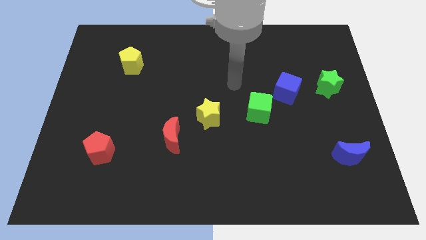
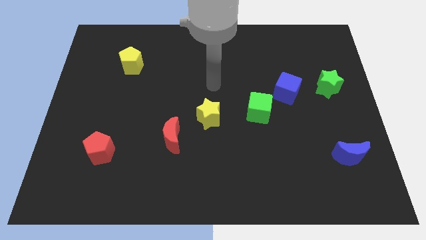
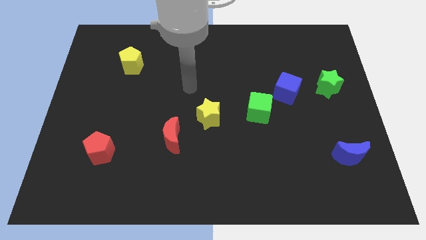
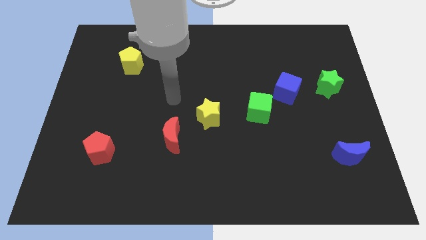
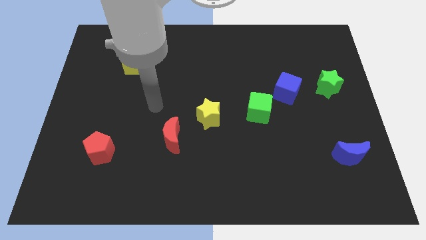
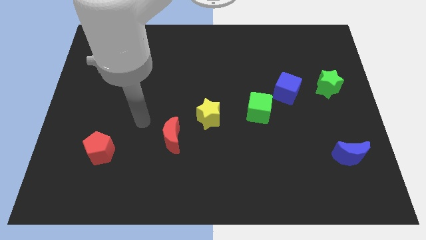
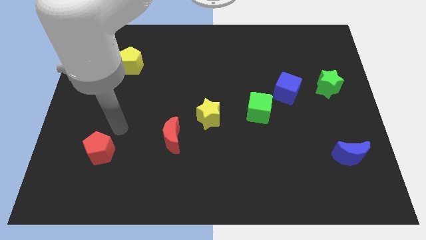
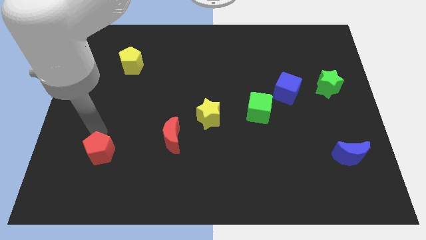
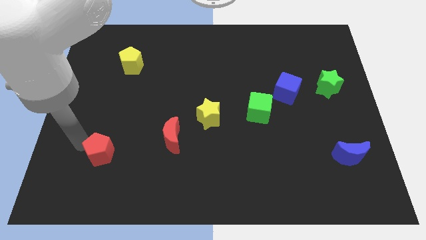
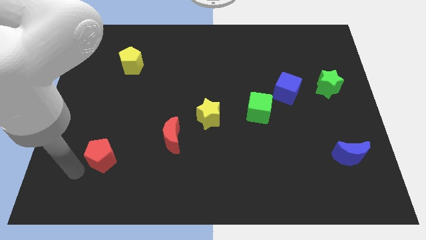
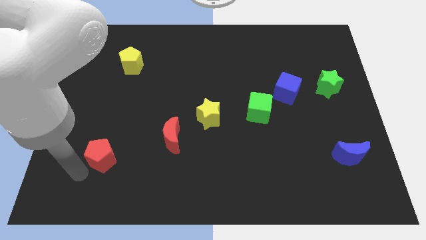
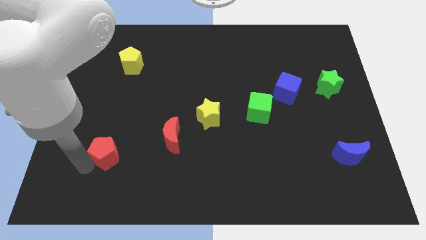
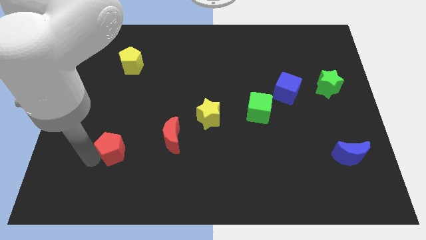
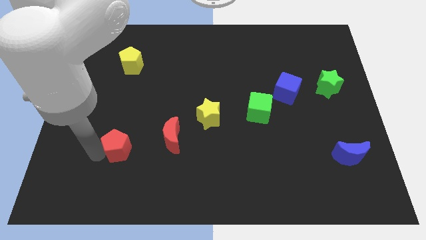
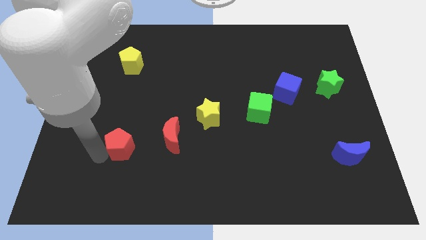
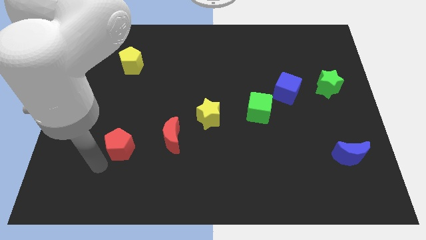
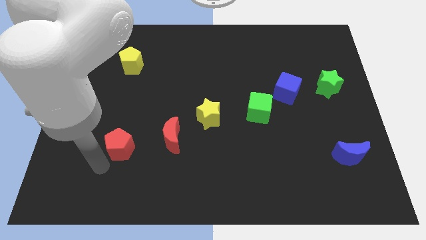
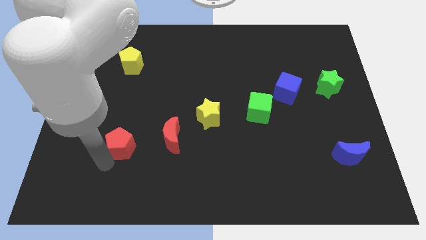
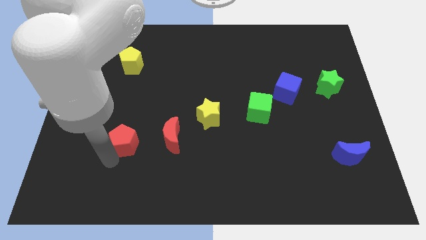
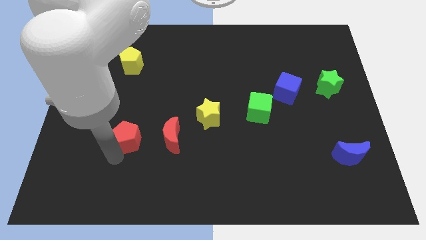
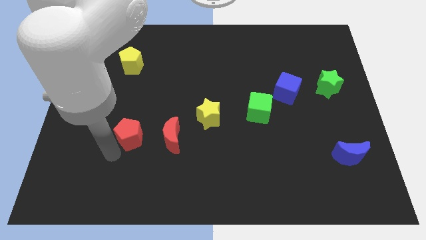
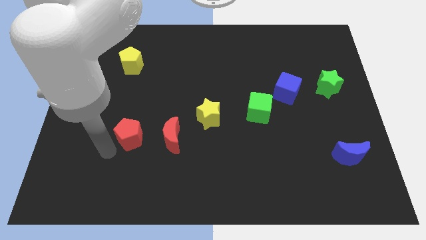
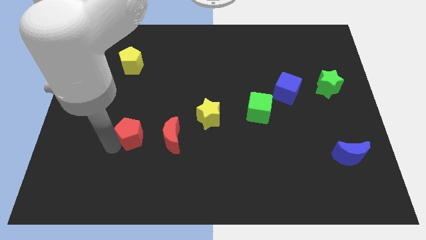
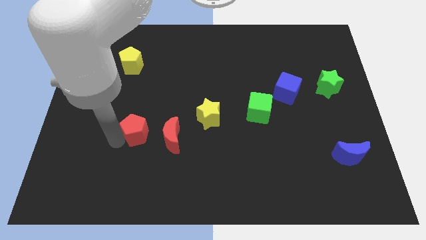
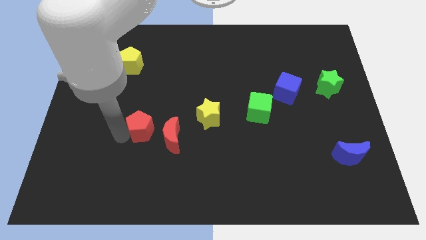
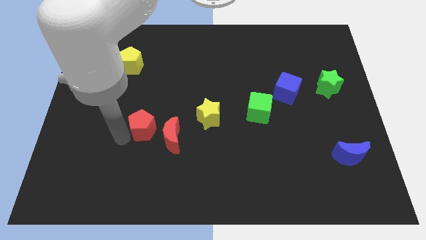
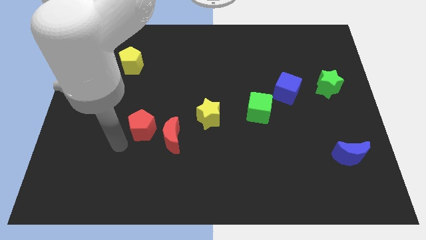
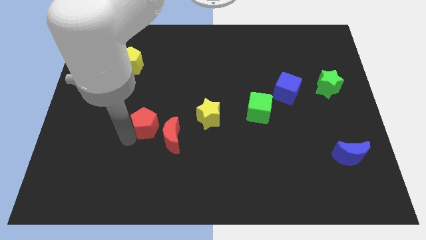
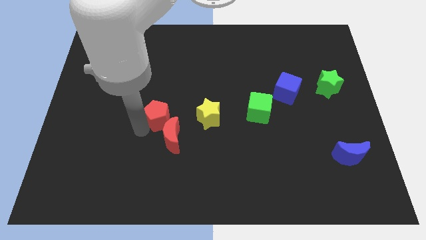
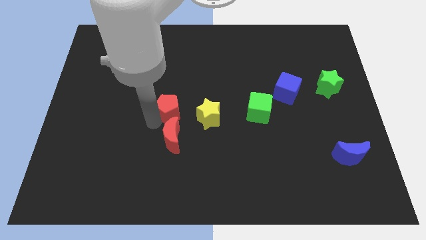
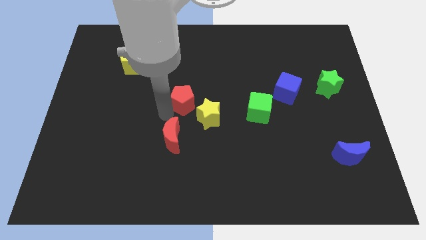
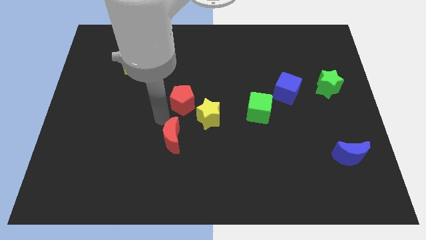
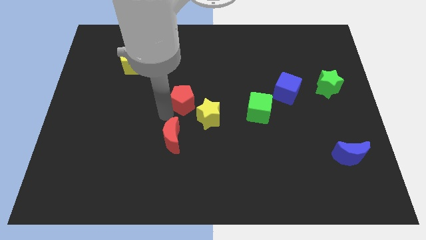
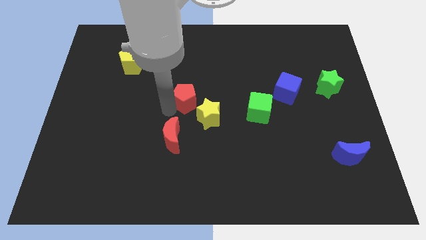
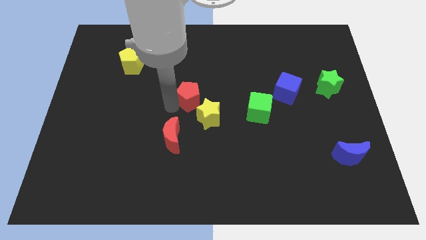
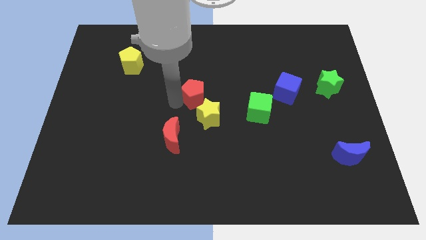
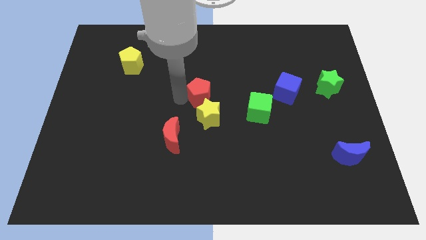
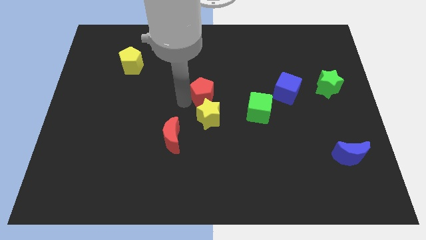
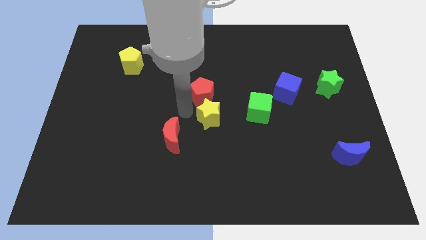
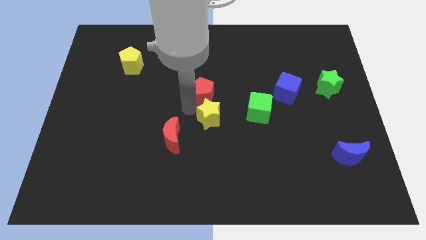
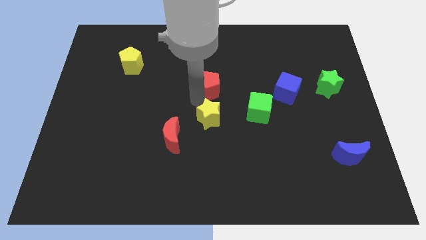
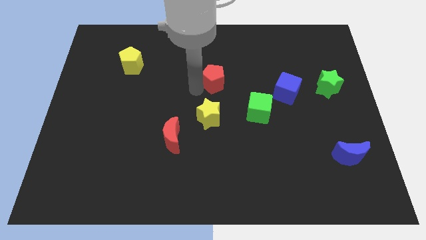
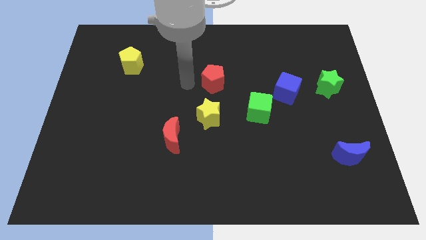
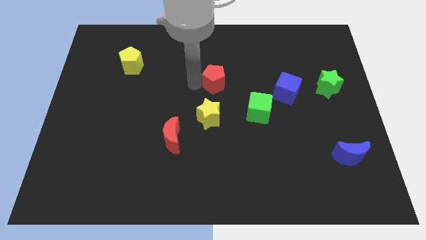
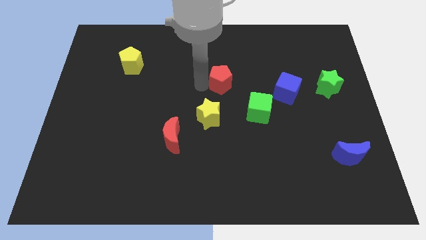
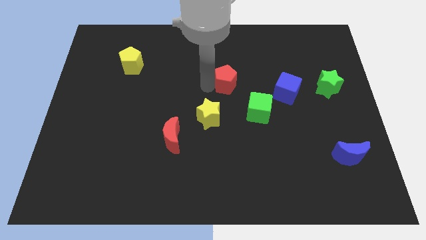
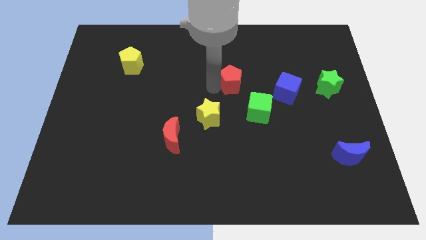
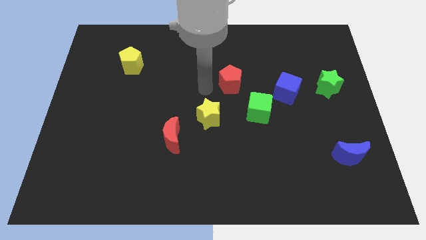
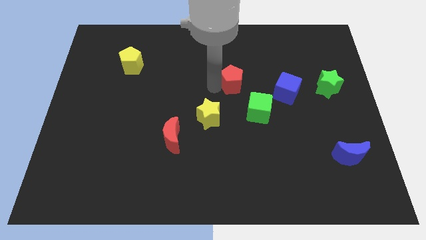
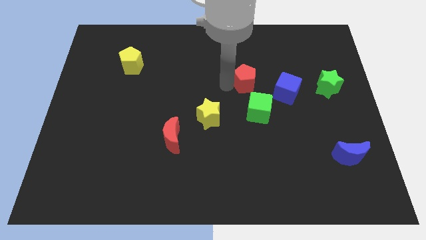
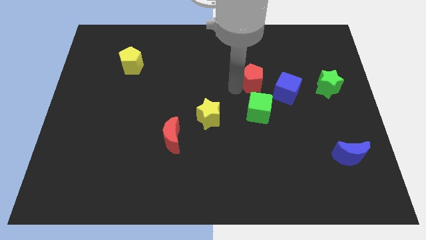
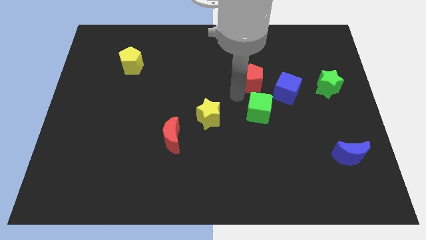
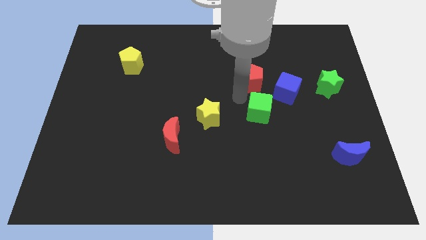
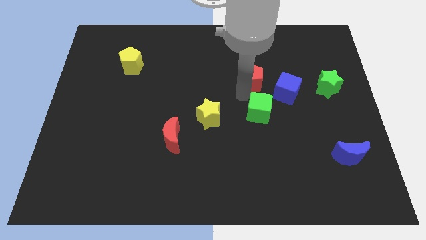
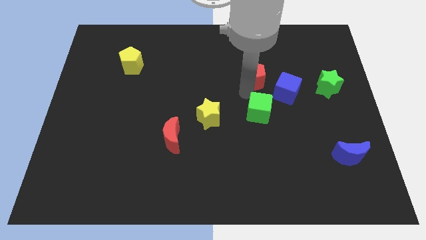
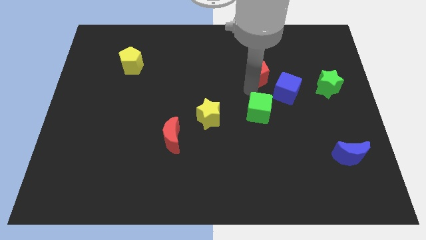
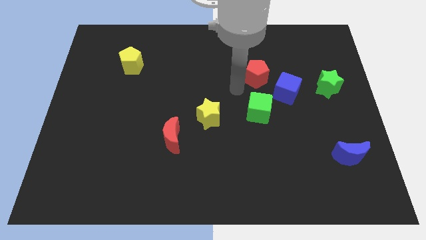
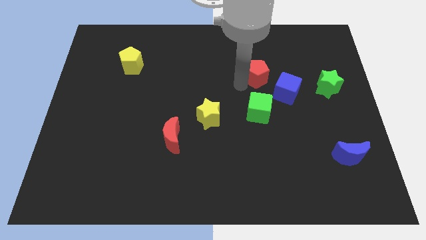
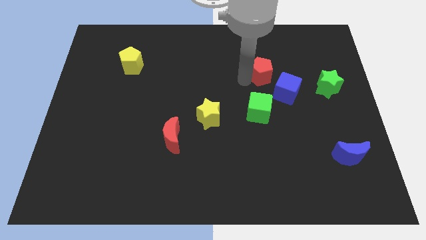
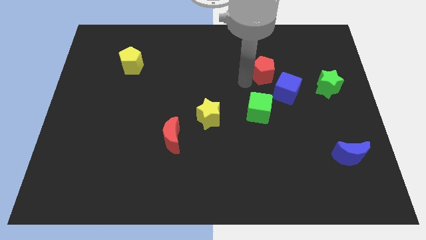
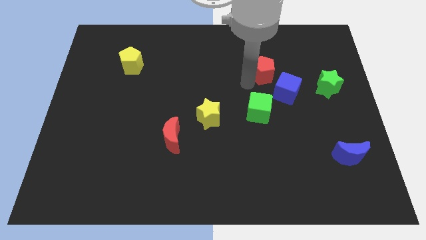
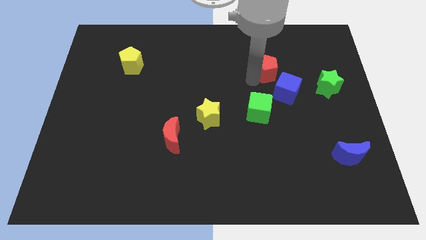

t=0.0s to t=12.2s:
move the red pentagon to the top of the blue cube

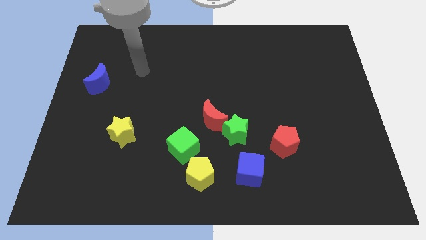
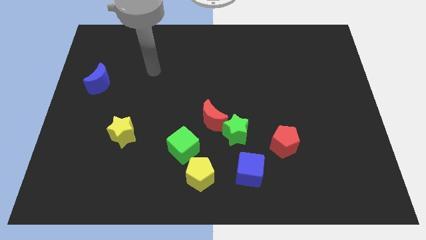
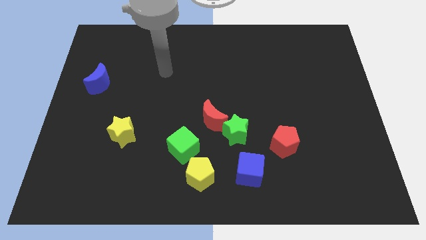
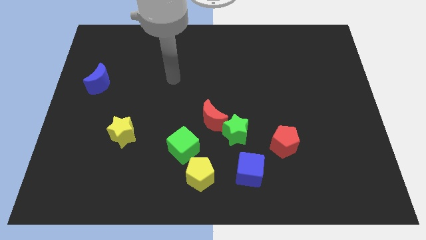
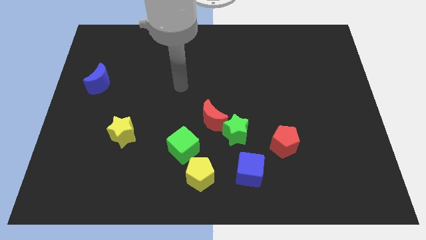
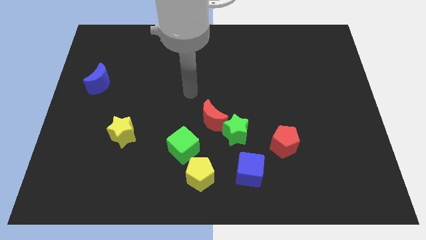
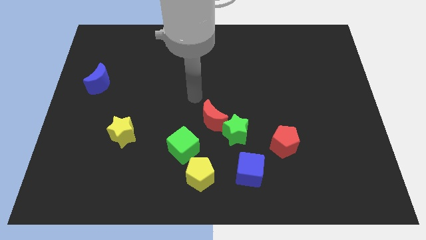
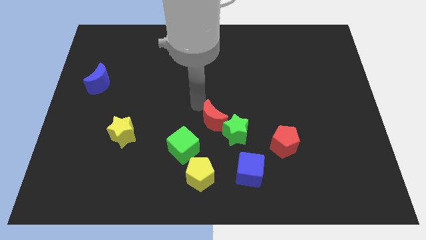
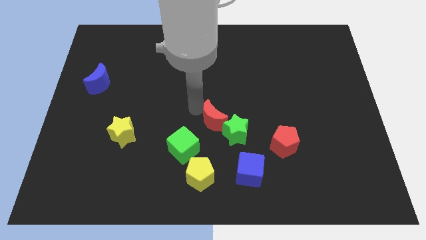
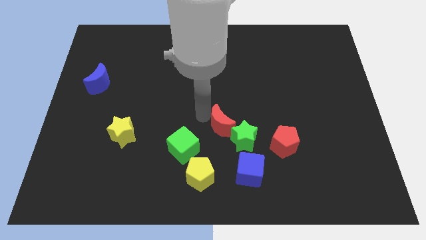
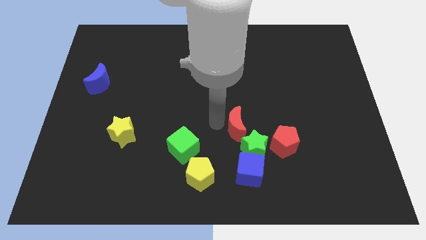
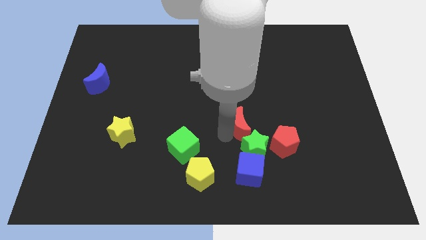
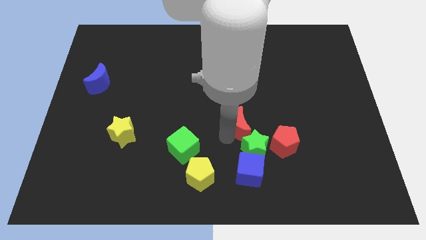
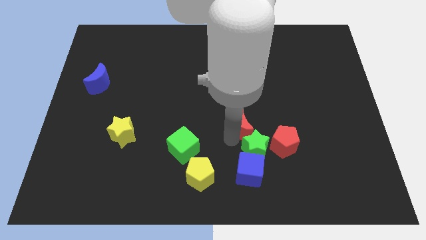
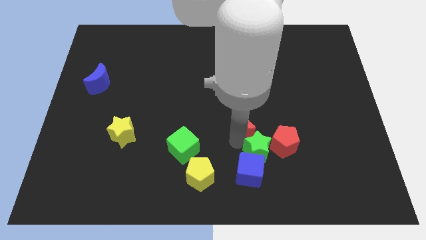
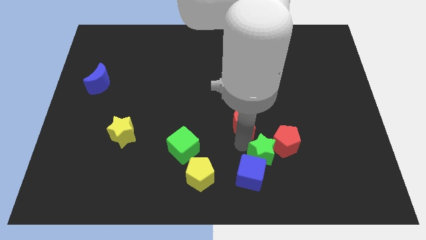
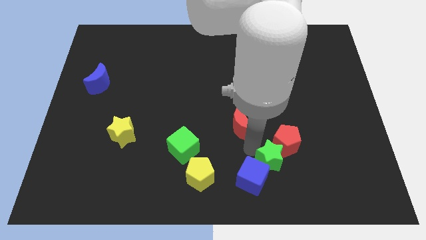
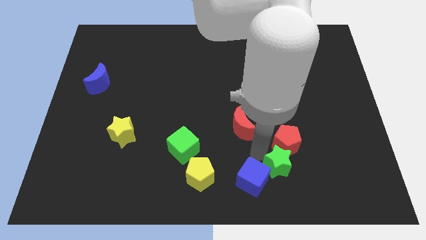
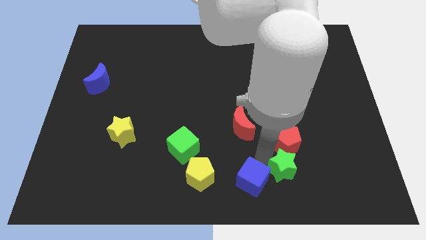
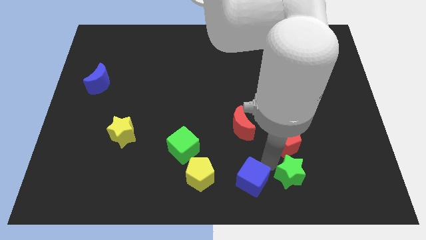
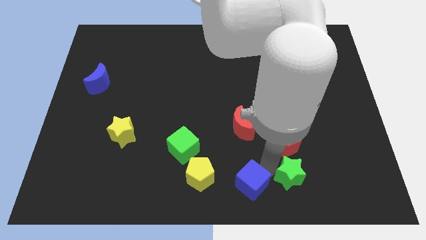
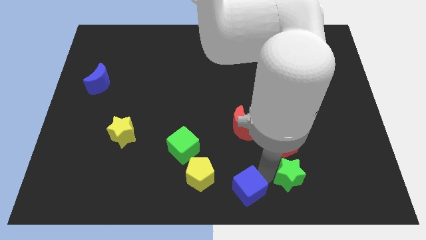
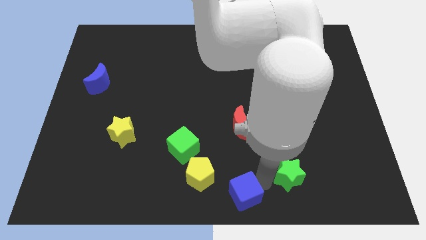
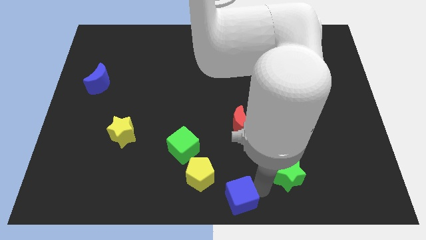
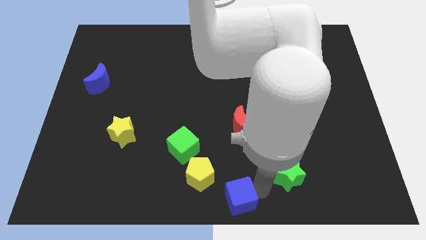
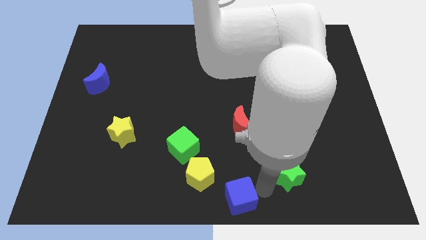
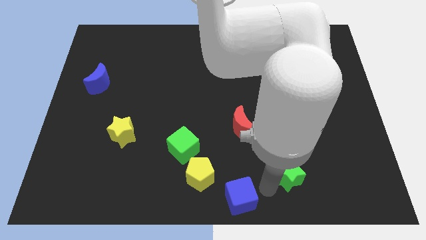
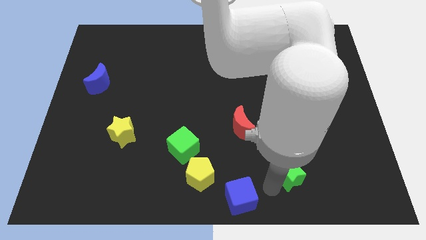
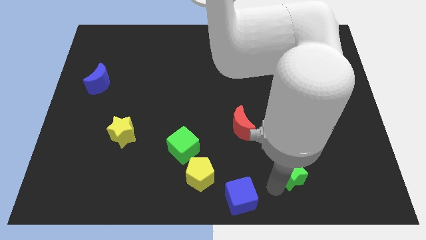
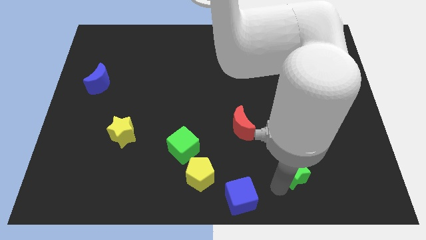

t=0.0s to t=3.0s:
slide the green star to the bottom right side of the red pentagon
